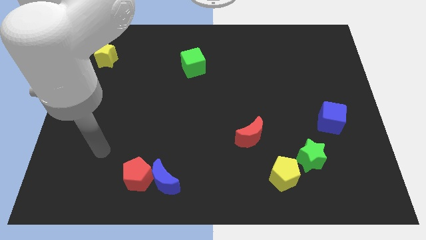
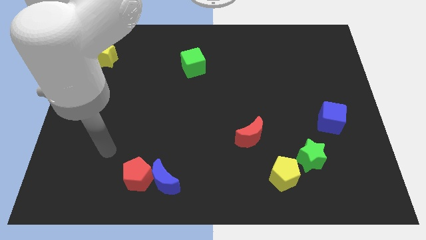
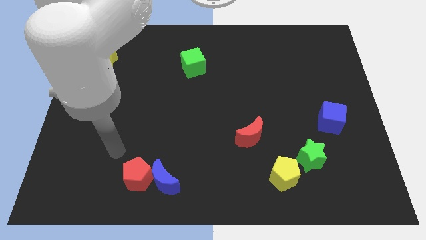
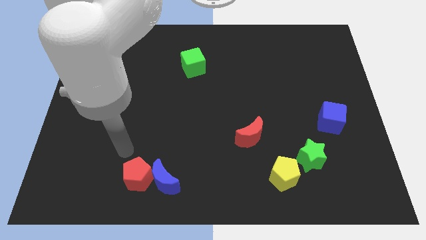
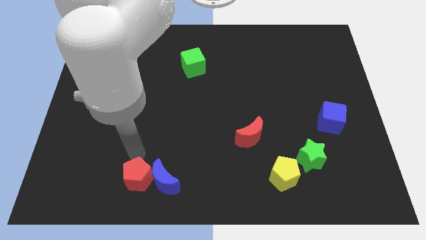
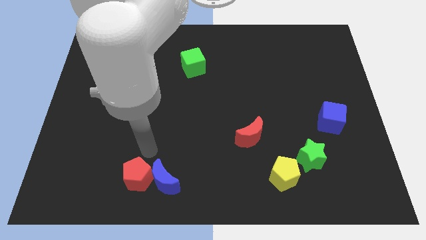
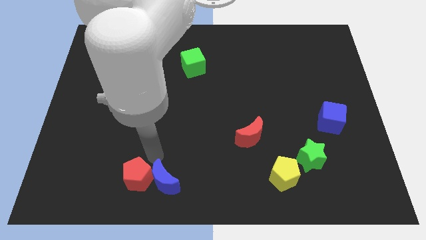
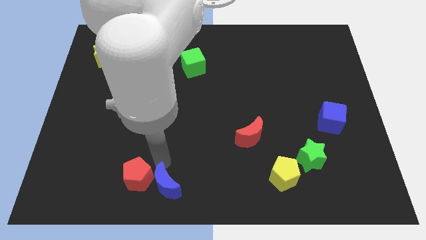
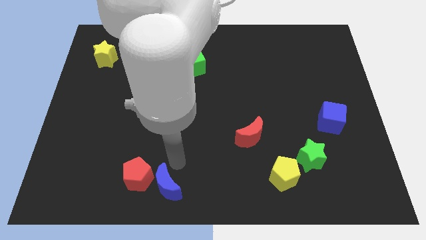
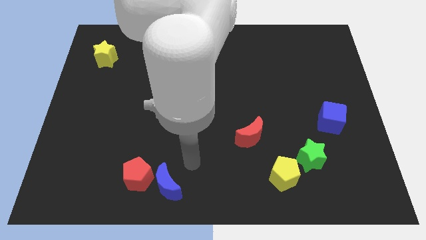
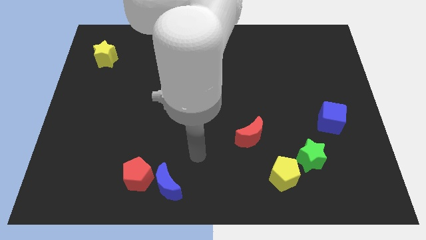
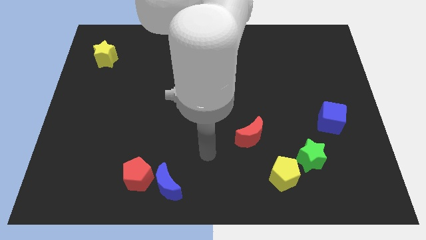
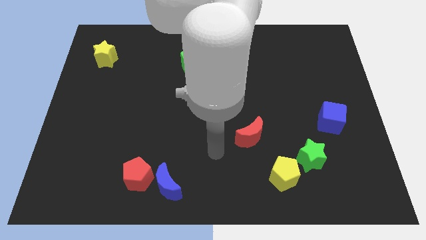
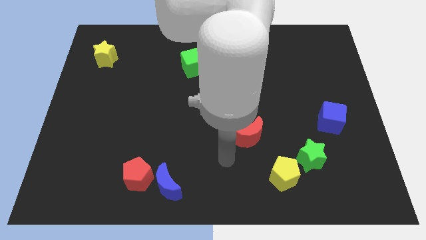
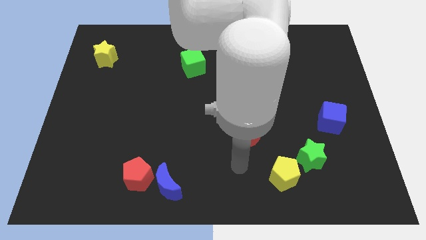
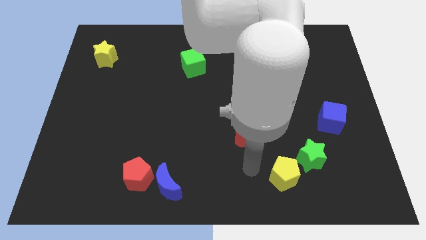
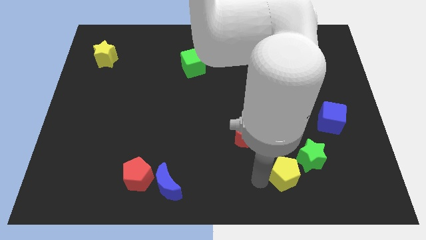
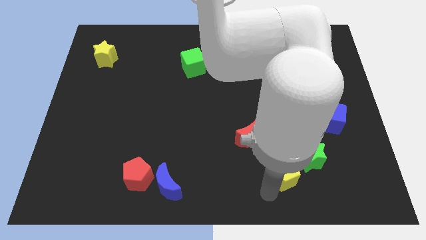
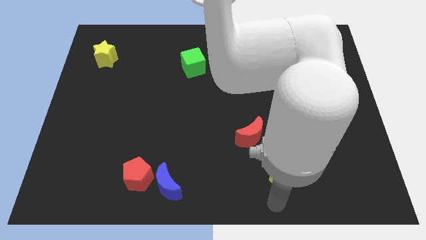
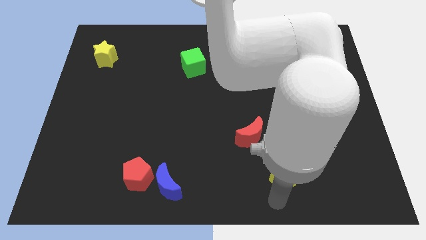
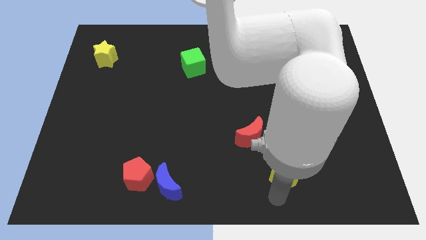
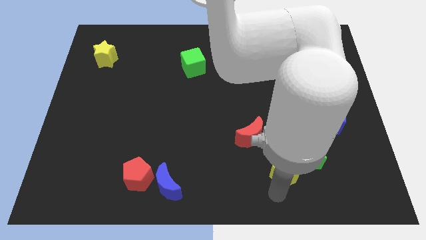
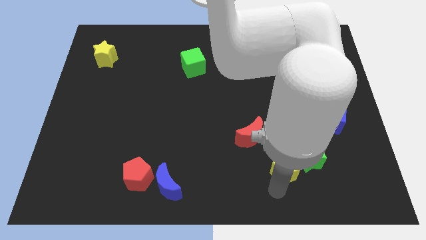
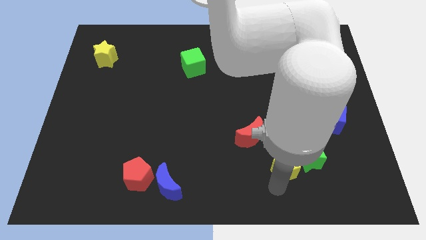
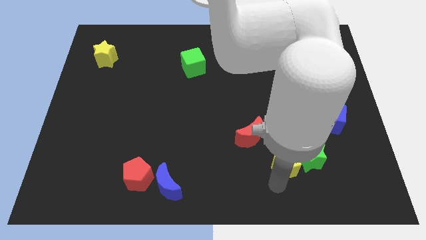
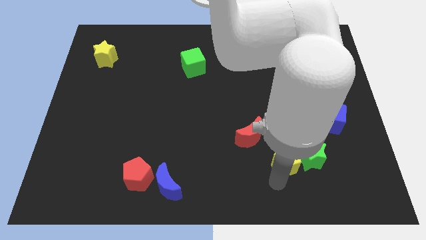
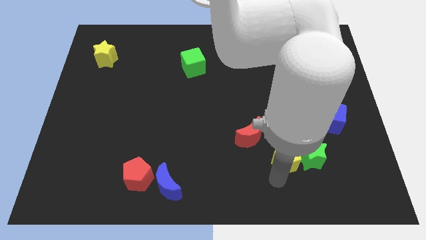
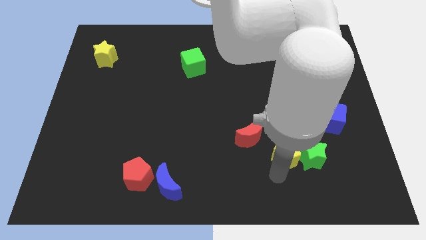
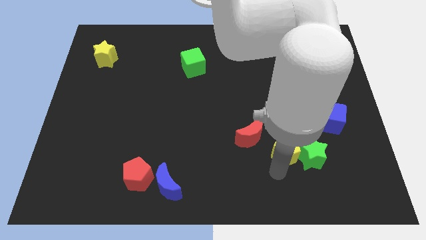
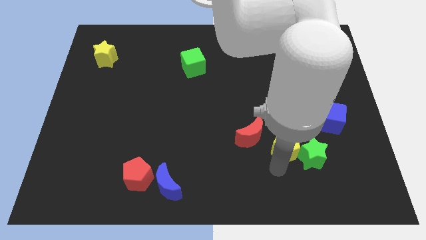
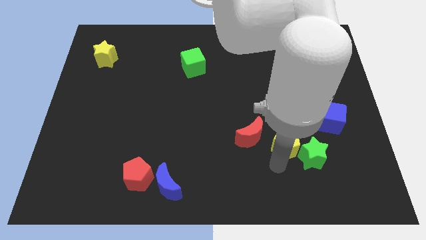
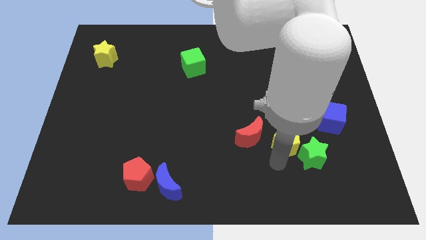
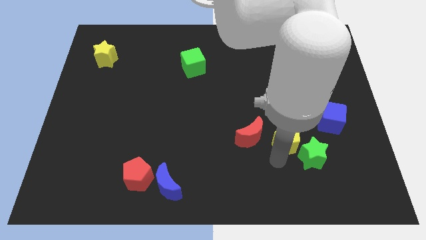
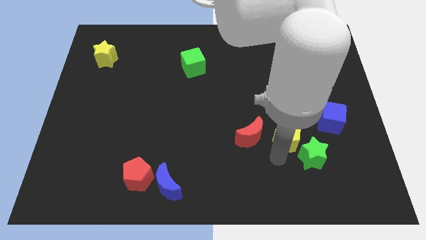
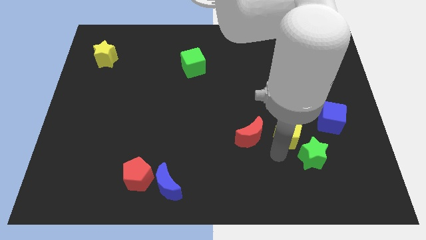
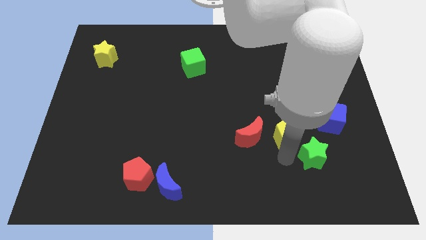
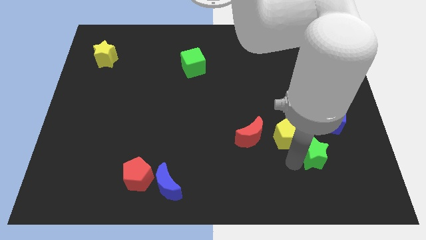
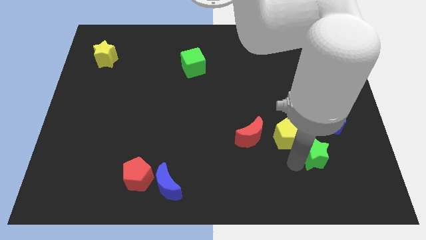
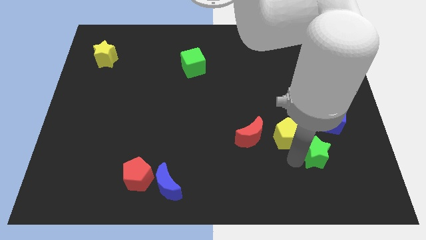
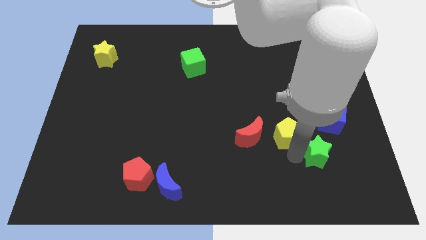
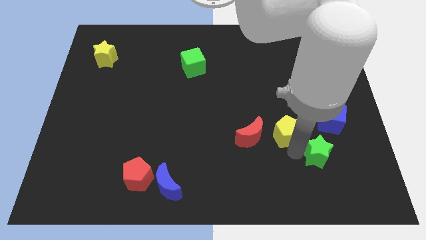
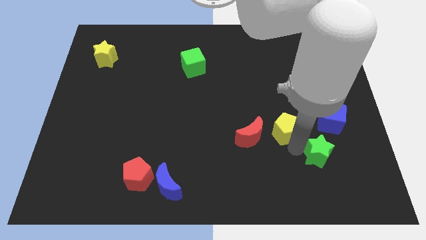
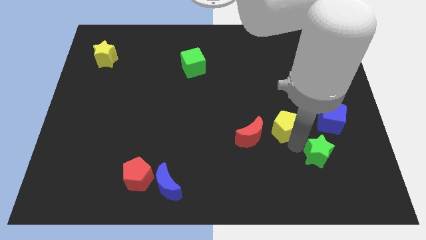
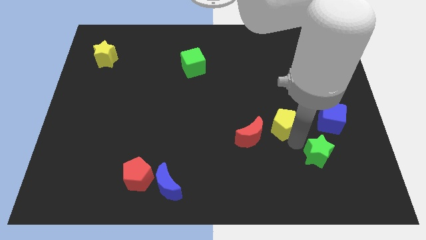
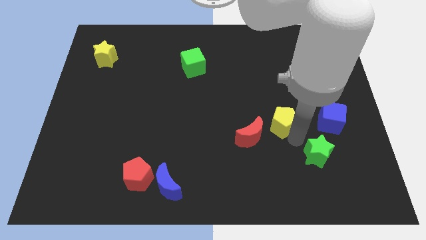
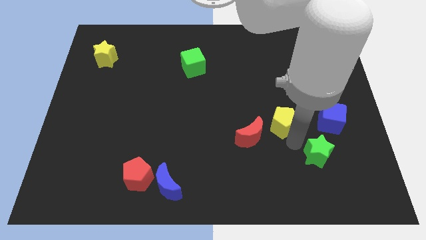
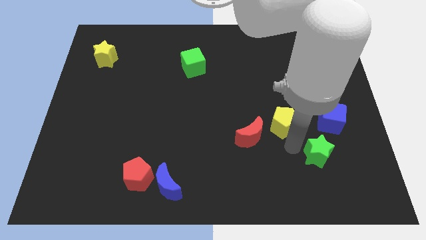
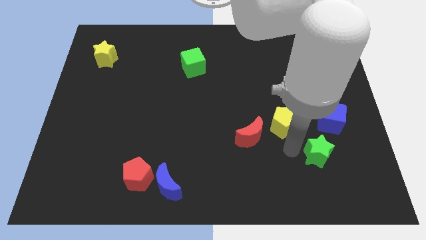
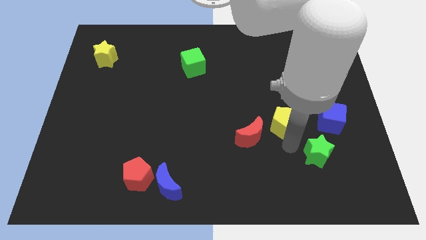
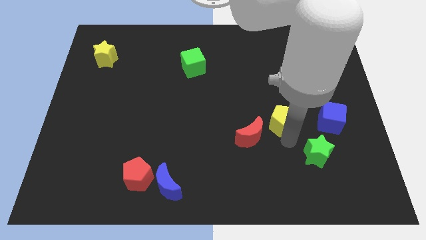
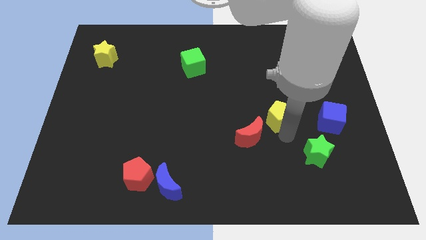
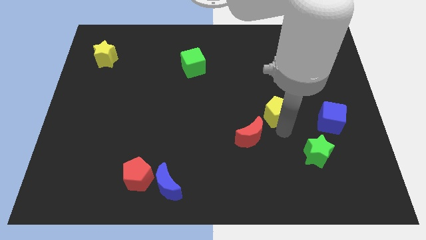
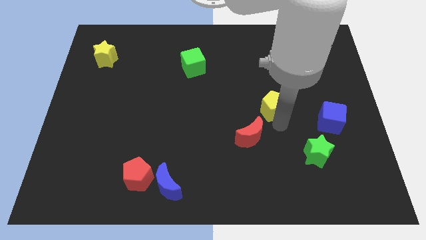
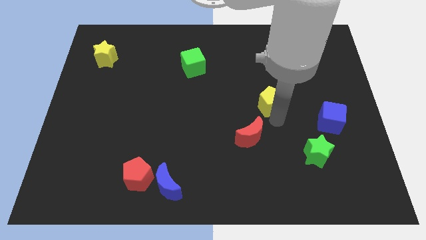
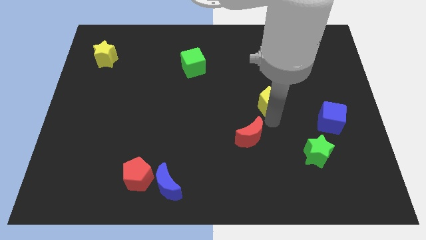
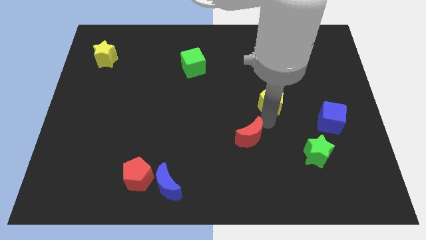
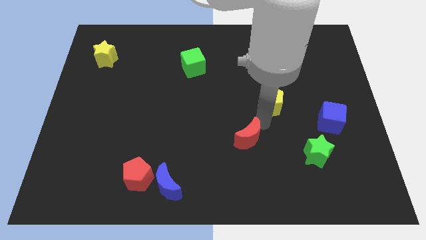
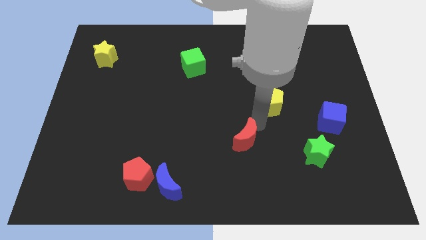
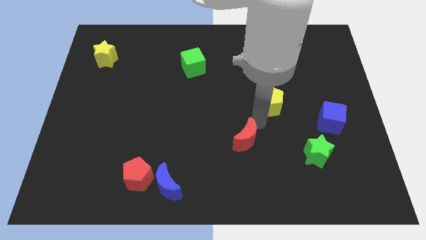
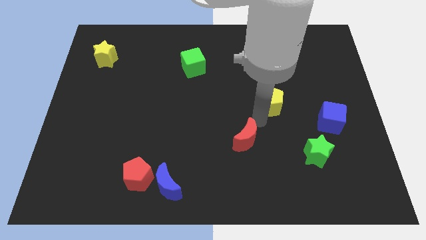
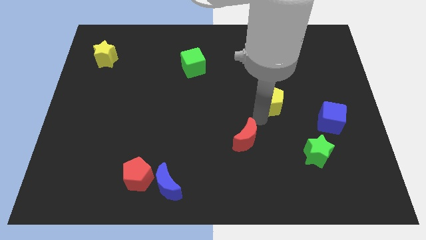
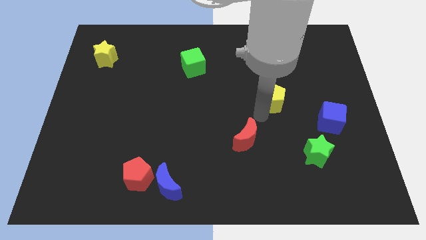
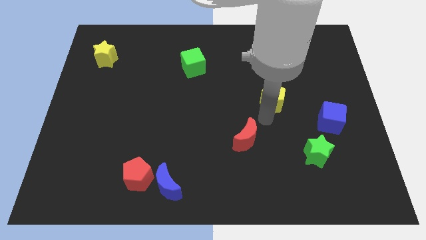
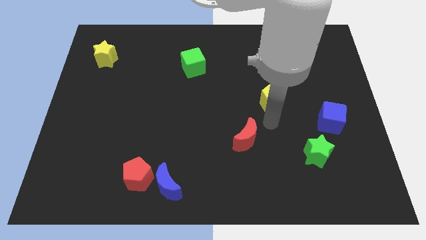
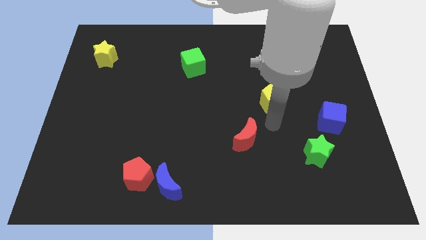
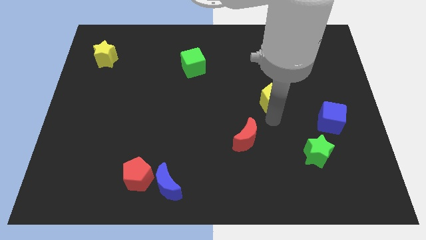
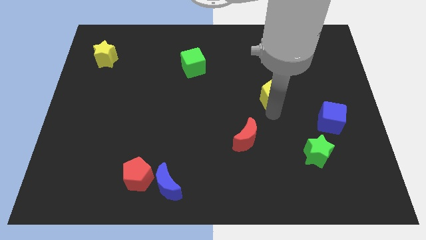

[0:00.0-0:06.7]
push the yellow pentagon up

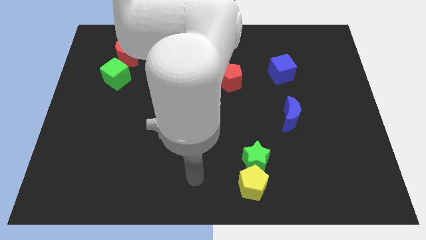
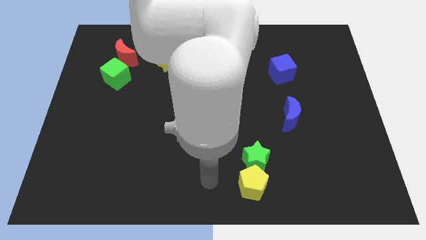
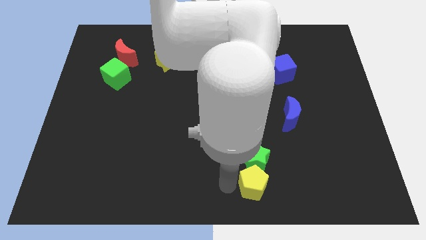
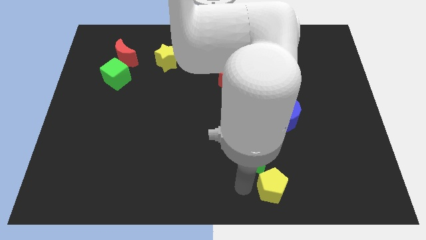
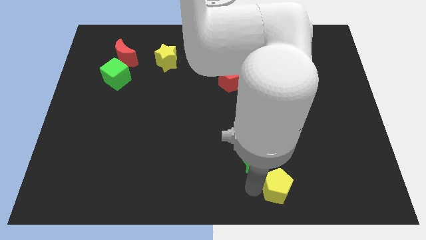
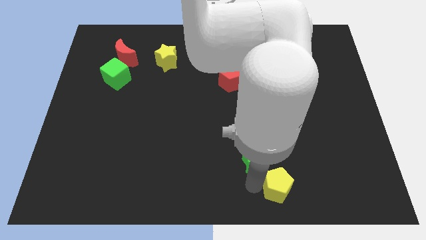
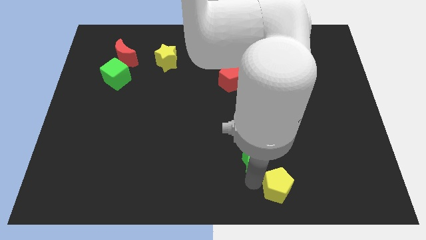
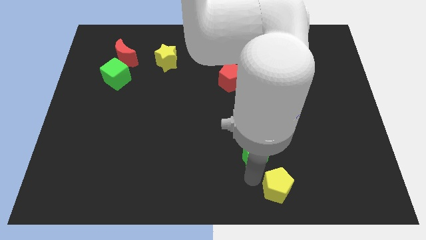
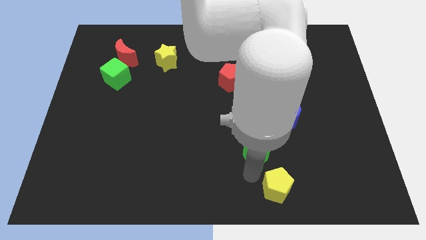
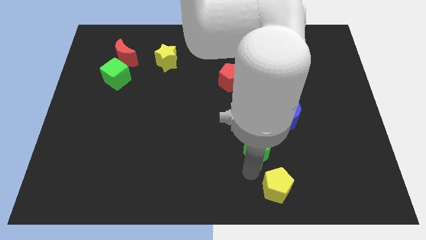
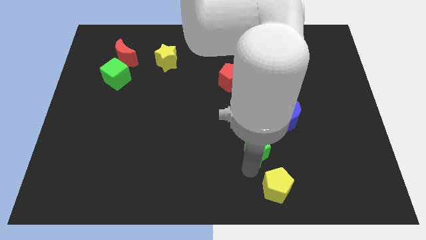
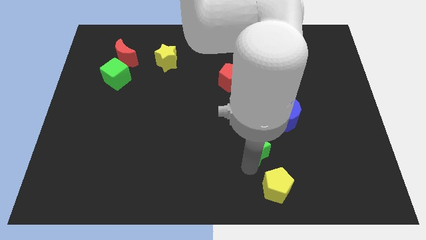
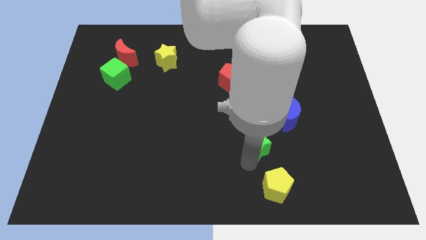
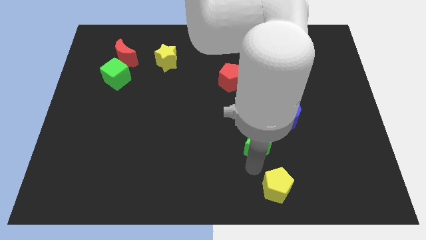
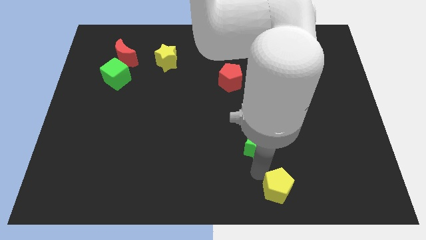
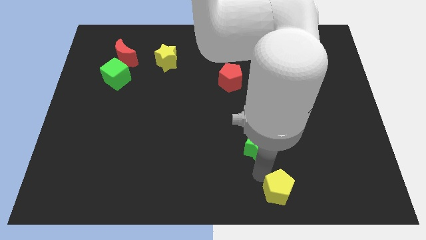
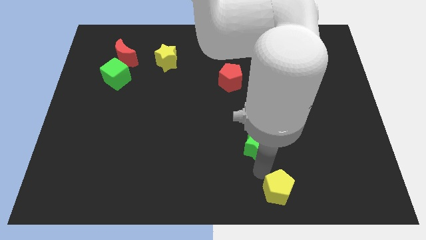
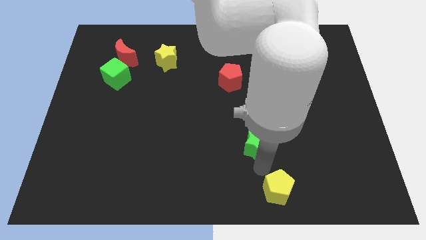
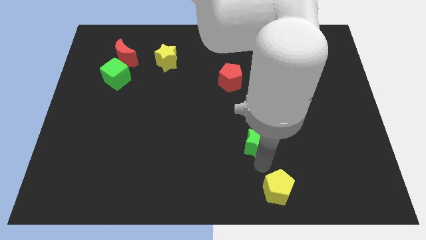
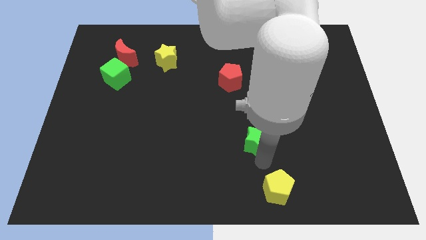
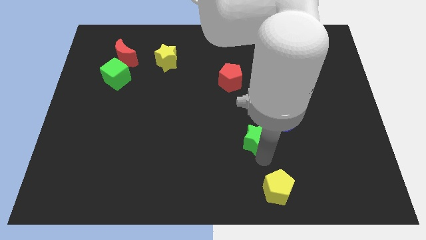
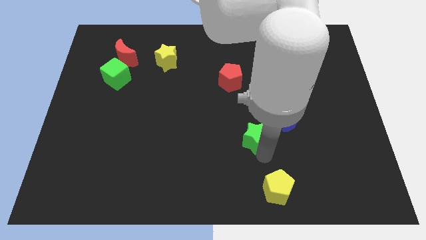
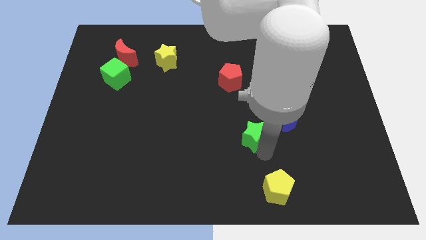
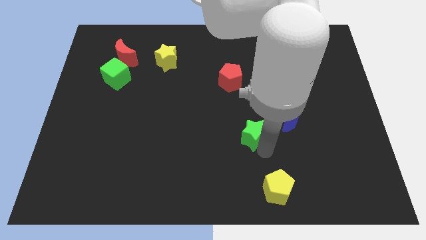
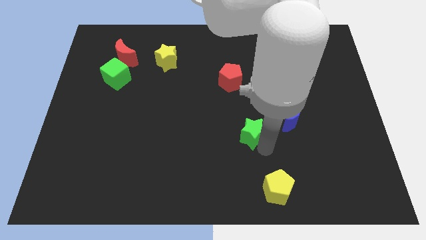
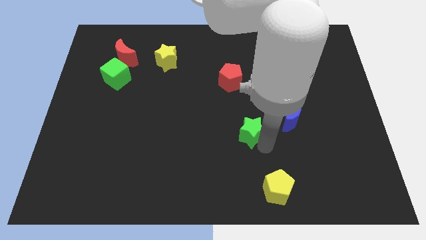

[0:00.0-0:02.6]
push the green star slightly up
